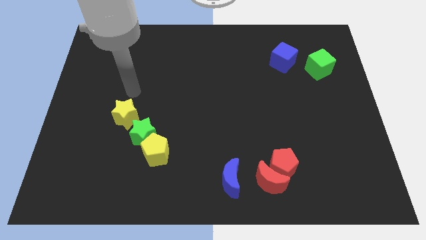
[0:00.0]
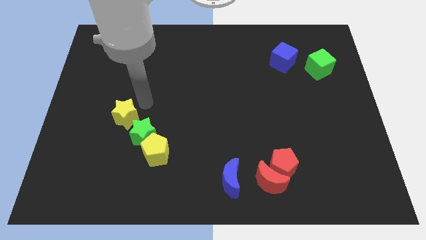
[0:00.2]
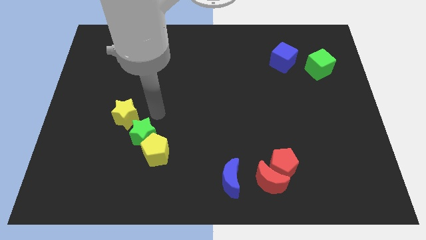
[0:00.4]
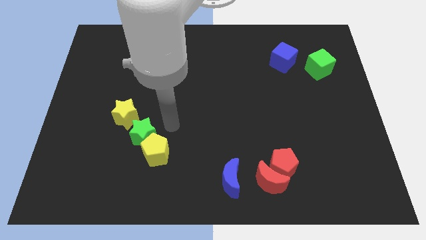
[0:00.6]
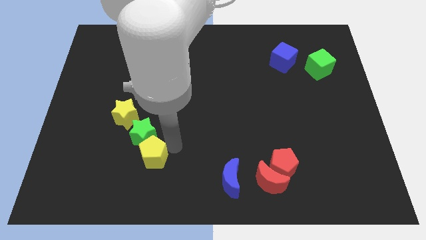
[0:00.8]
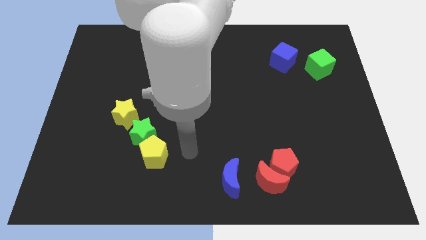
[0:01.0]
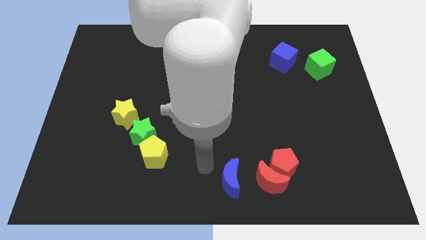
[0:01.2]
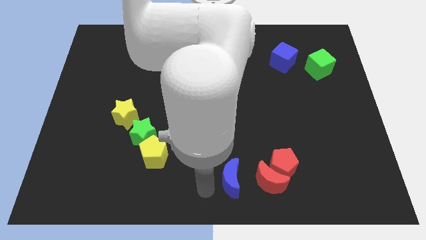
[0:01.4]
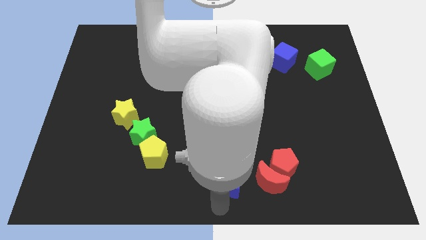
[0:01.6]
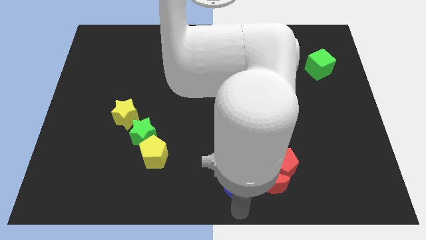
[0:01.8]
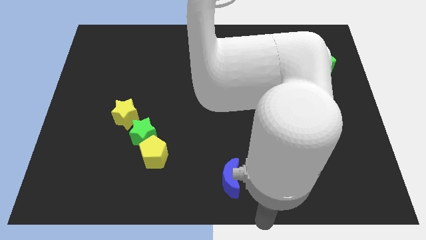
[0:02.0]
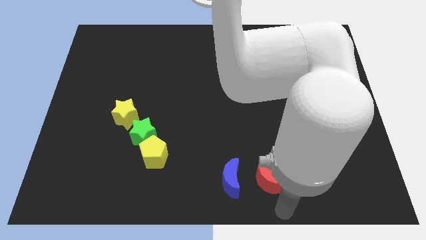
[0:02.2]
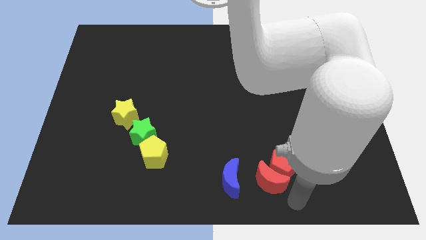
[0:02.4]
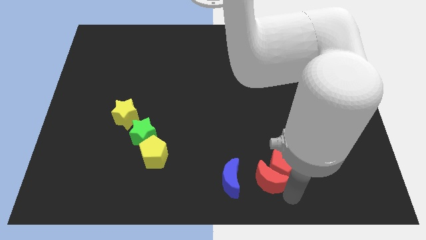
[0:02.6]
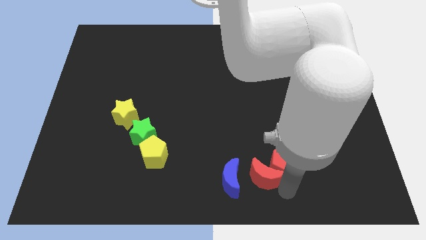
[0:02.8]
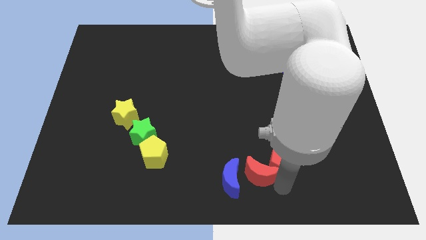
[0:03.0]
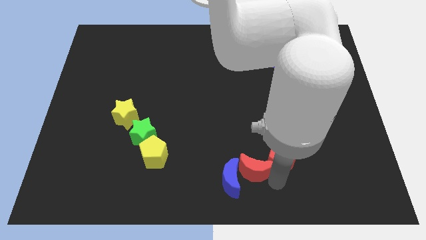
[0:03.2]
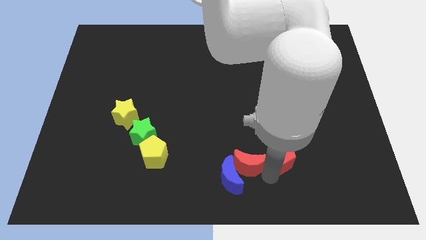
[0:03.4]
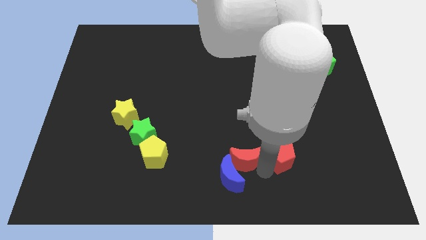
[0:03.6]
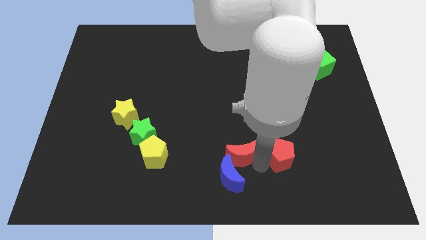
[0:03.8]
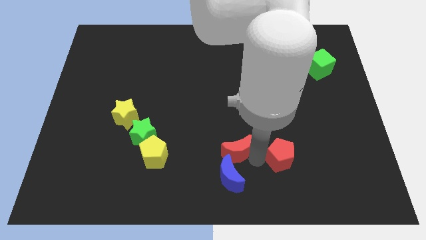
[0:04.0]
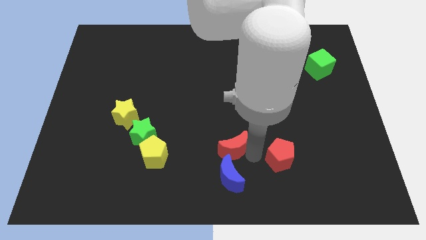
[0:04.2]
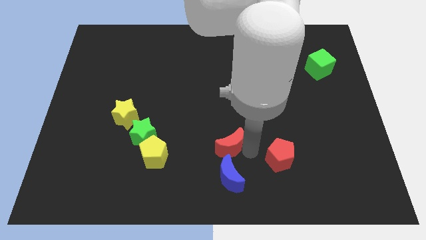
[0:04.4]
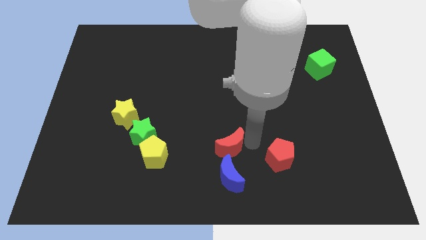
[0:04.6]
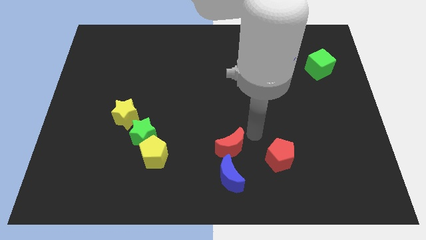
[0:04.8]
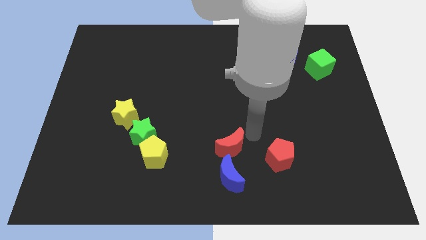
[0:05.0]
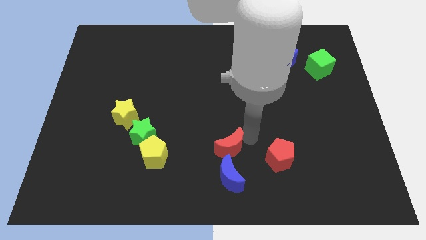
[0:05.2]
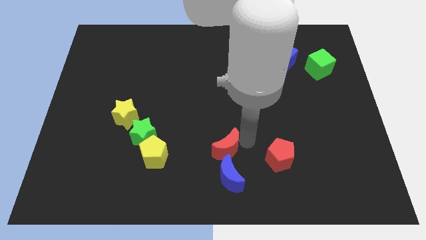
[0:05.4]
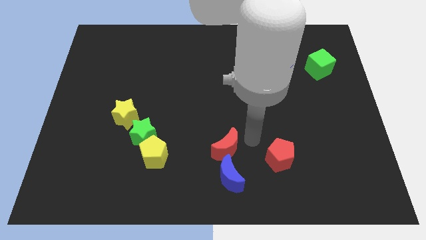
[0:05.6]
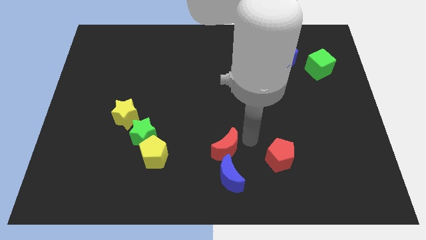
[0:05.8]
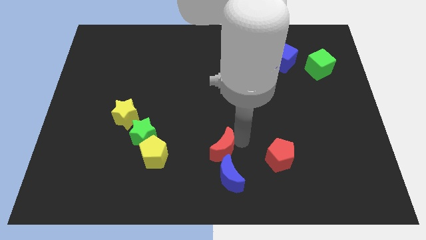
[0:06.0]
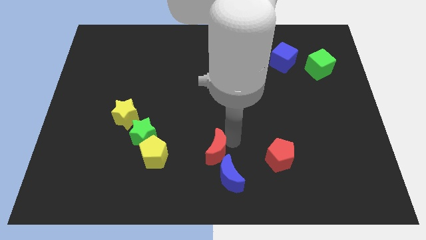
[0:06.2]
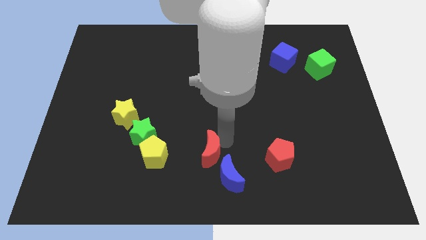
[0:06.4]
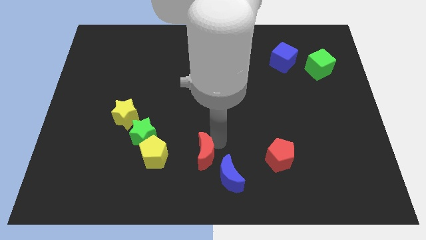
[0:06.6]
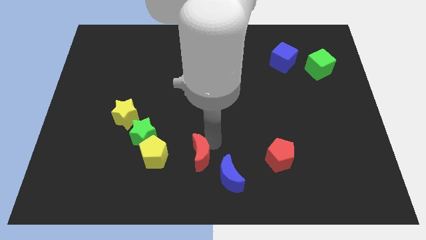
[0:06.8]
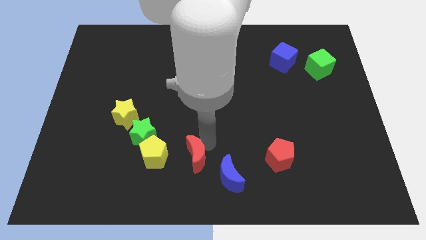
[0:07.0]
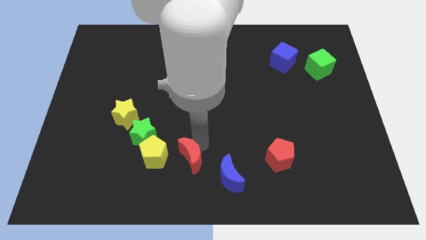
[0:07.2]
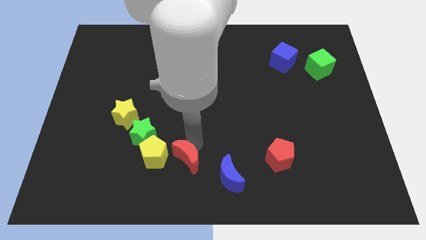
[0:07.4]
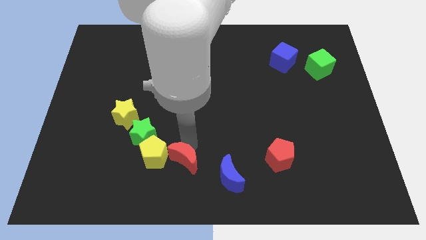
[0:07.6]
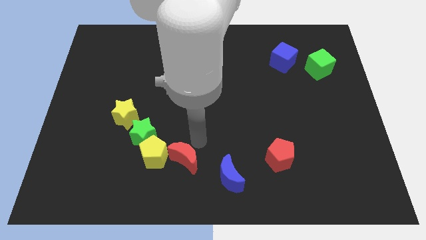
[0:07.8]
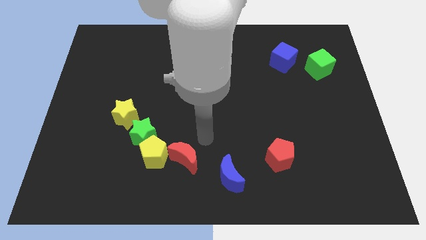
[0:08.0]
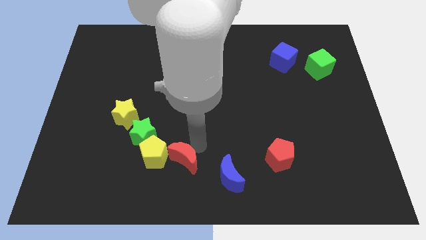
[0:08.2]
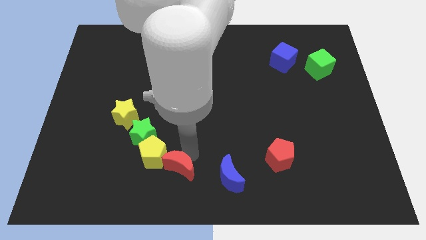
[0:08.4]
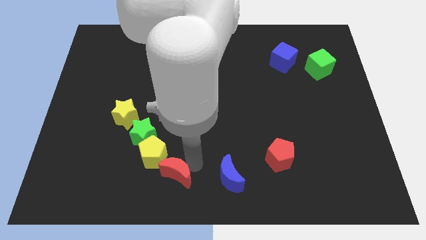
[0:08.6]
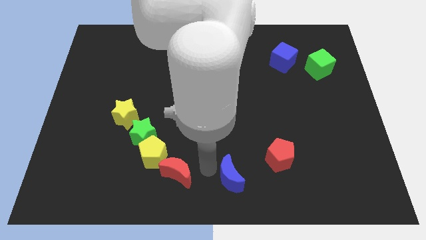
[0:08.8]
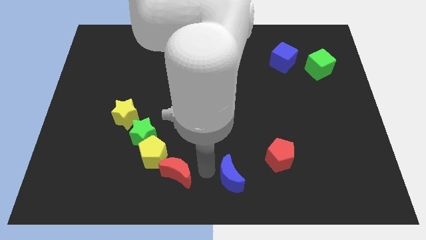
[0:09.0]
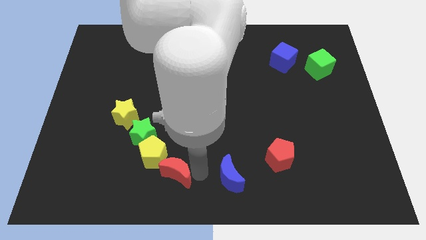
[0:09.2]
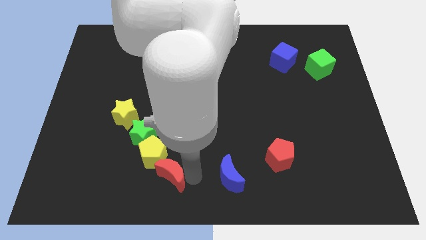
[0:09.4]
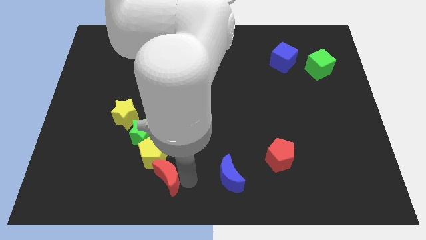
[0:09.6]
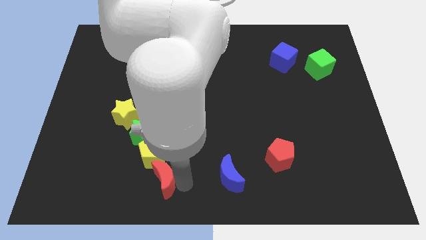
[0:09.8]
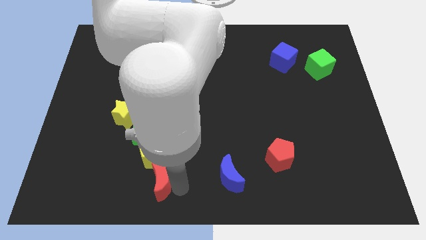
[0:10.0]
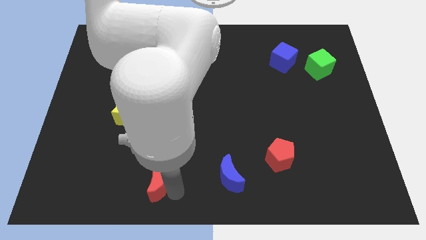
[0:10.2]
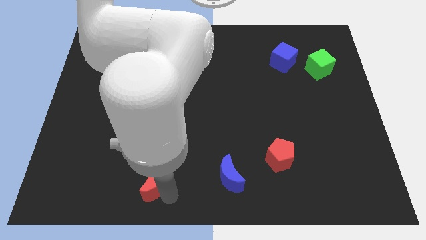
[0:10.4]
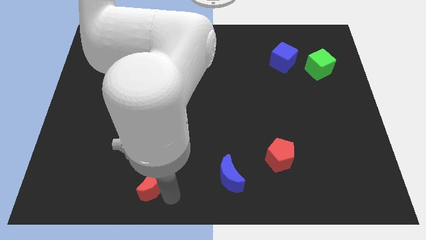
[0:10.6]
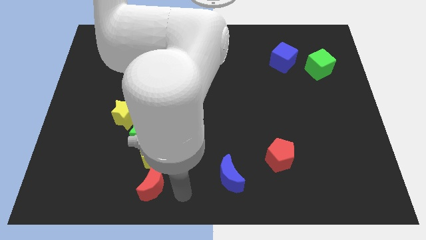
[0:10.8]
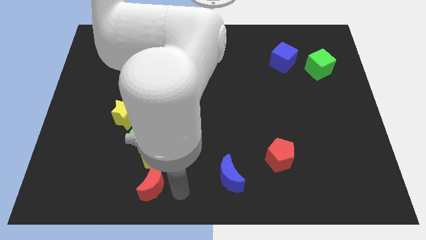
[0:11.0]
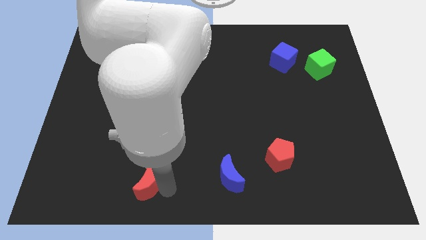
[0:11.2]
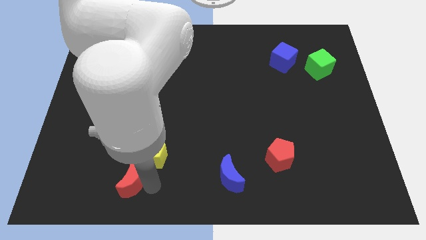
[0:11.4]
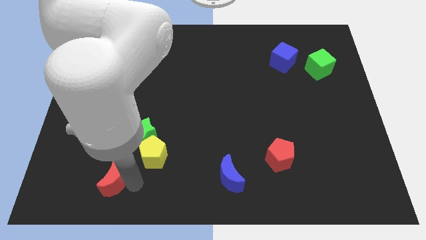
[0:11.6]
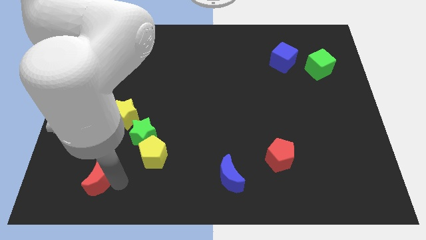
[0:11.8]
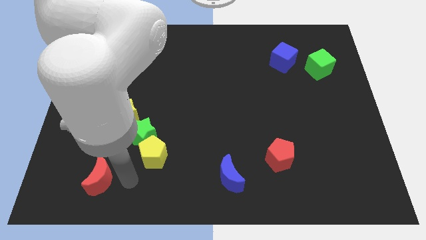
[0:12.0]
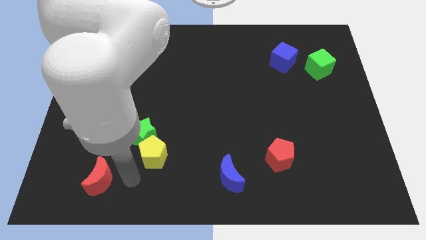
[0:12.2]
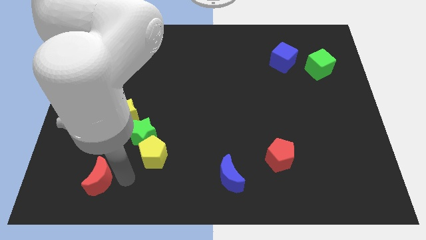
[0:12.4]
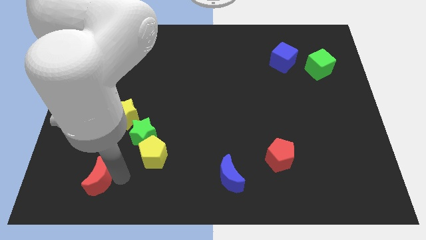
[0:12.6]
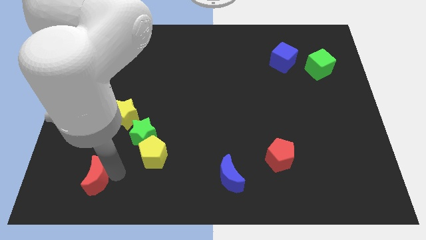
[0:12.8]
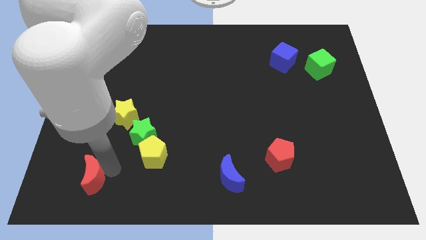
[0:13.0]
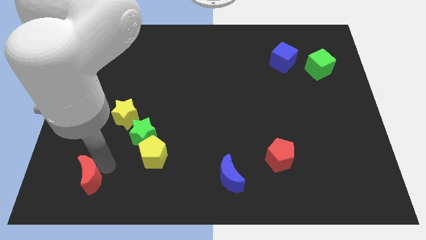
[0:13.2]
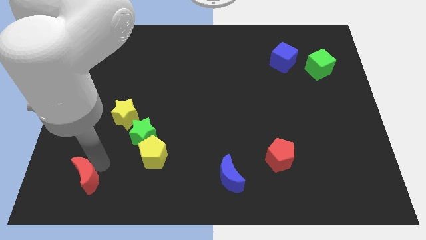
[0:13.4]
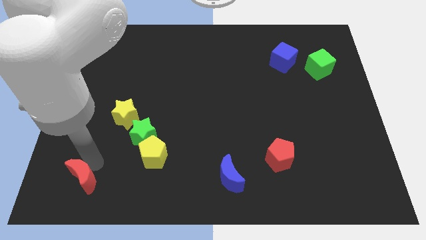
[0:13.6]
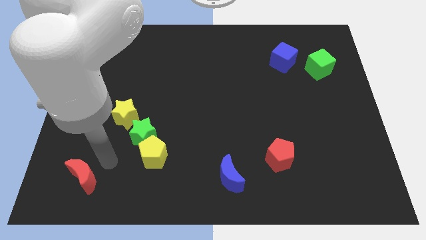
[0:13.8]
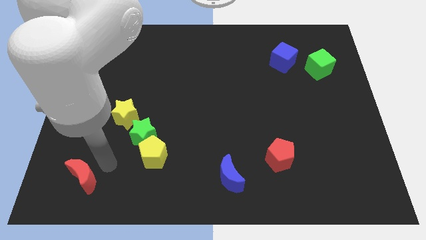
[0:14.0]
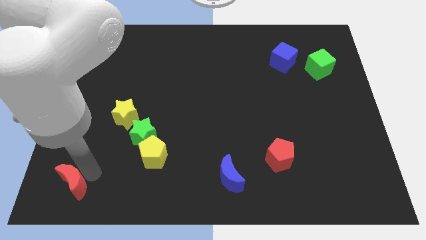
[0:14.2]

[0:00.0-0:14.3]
put the red moon to the bottom left
